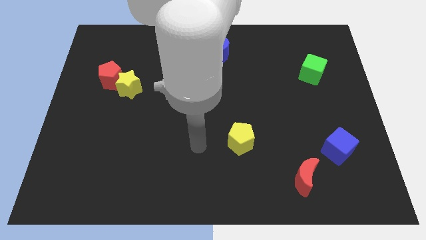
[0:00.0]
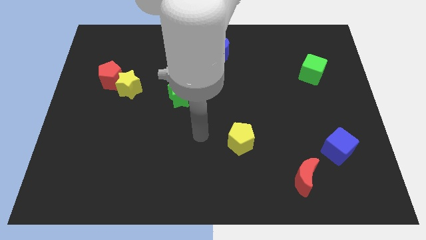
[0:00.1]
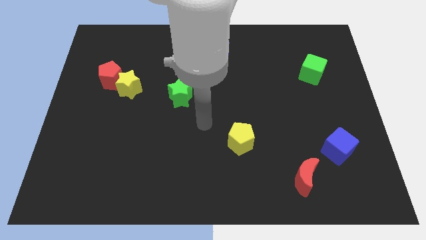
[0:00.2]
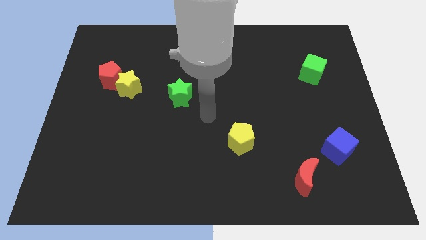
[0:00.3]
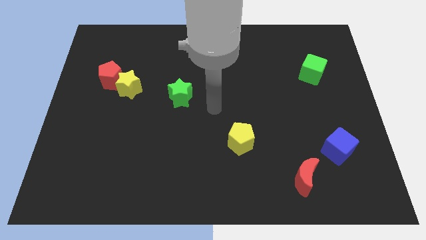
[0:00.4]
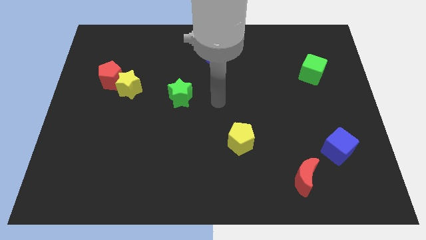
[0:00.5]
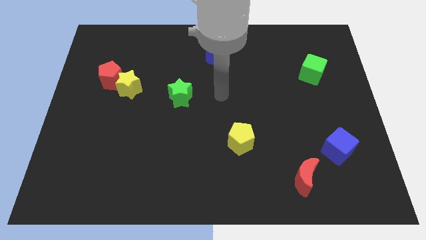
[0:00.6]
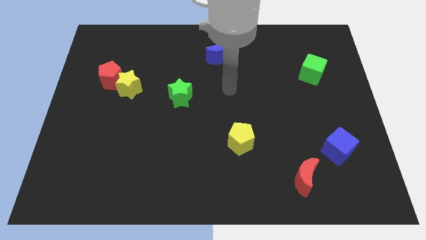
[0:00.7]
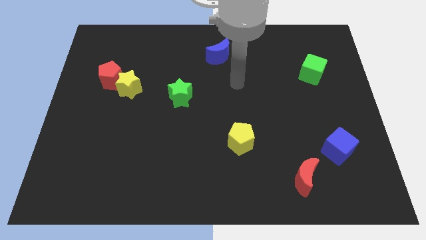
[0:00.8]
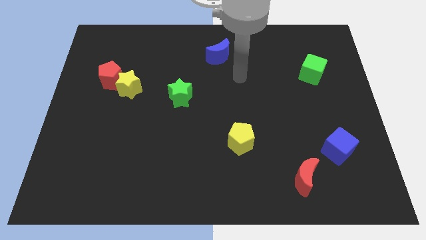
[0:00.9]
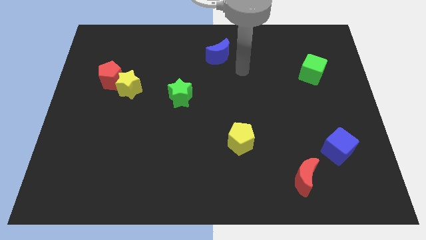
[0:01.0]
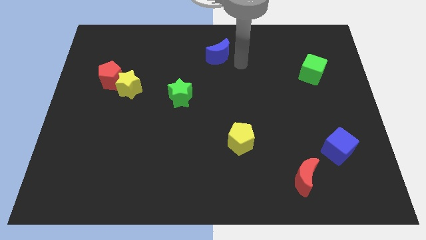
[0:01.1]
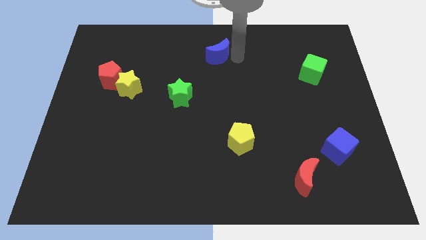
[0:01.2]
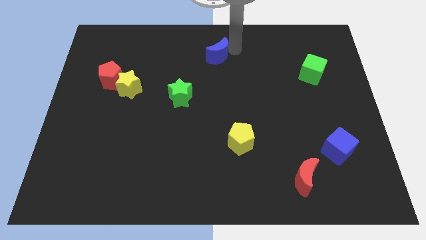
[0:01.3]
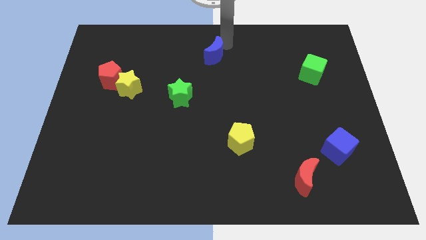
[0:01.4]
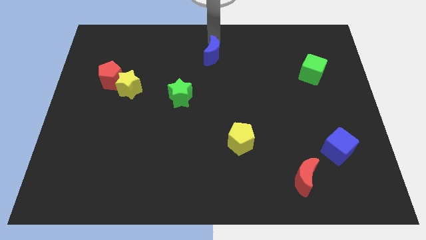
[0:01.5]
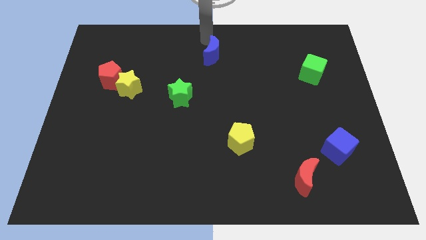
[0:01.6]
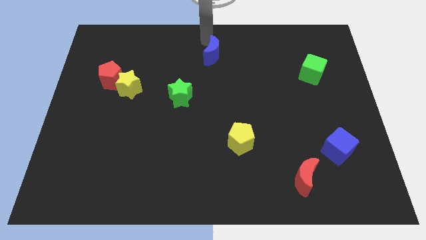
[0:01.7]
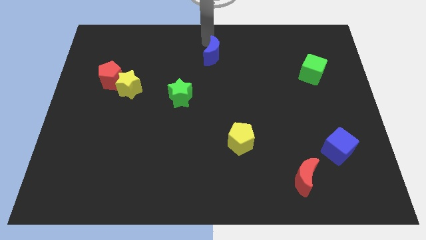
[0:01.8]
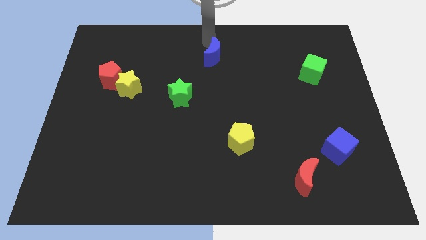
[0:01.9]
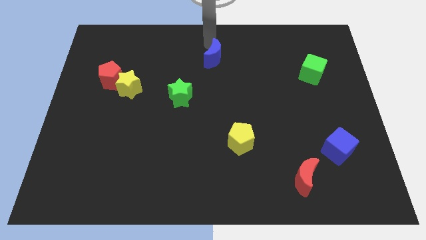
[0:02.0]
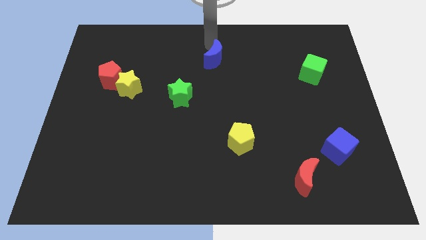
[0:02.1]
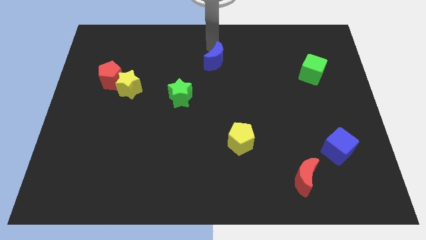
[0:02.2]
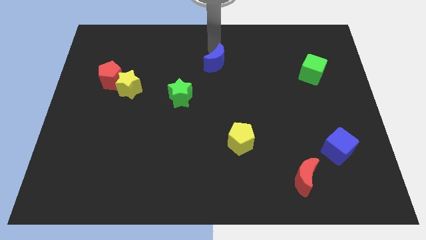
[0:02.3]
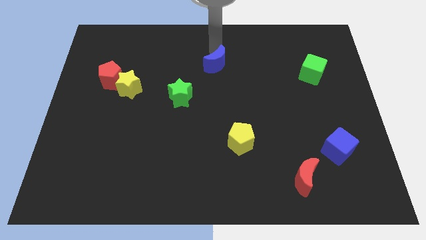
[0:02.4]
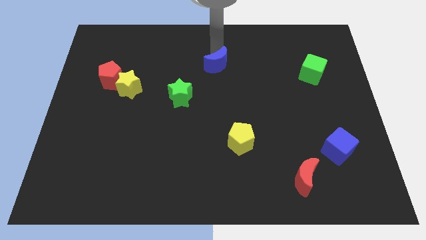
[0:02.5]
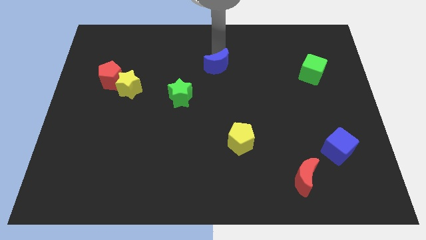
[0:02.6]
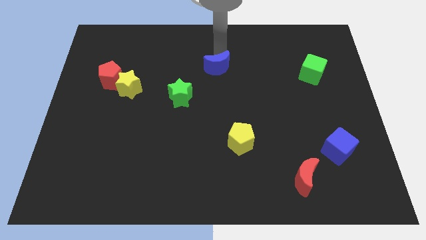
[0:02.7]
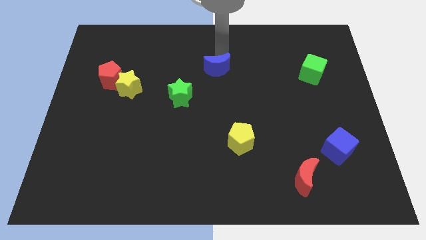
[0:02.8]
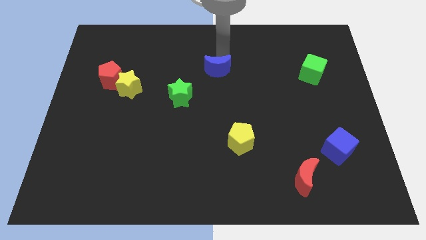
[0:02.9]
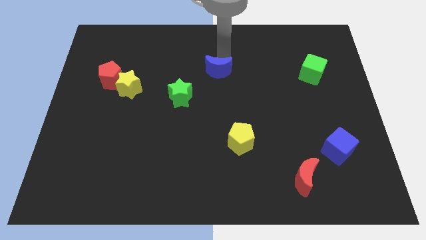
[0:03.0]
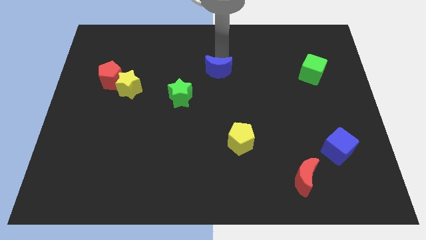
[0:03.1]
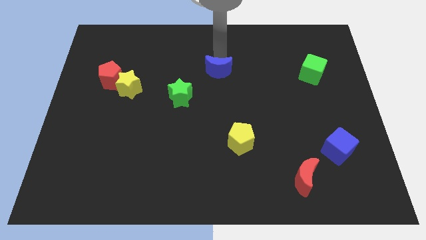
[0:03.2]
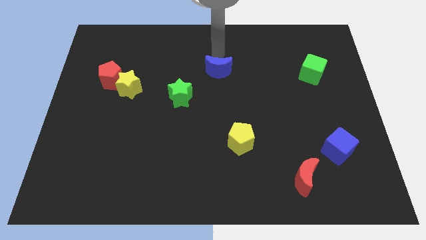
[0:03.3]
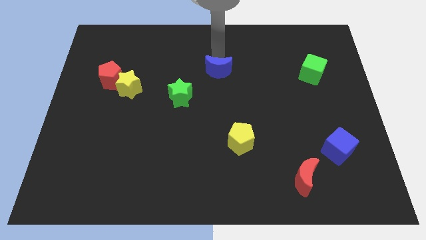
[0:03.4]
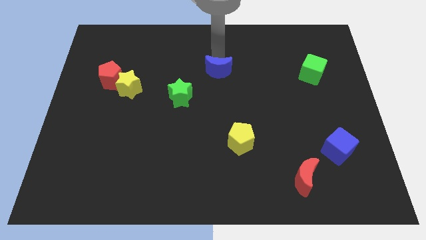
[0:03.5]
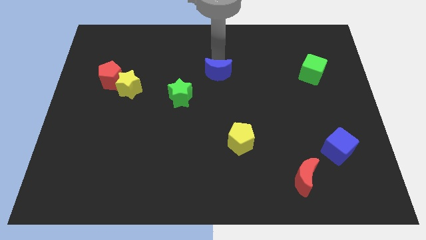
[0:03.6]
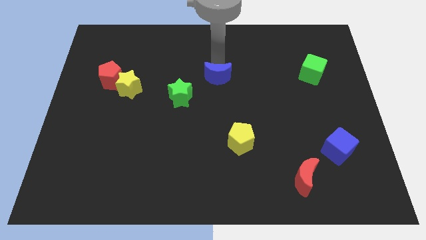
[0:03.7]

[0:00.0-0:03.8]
move the blue moon downwards slightly

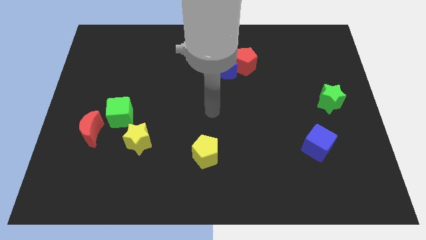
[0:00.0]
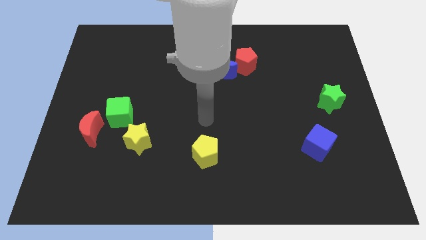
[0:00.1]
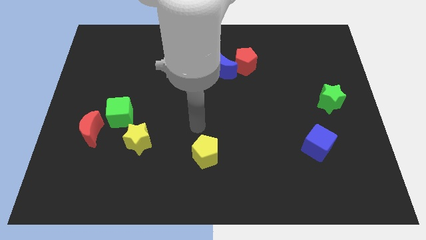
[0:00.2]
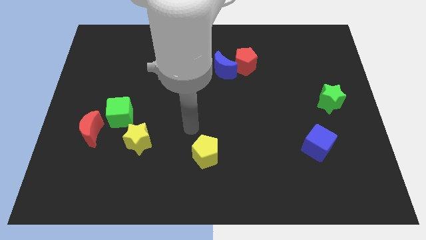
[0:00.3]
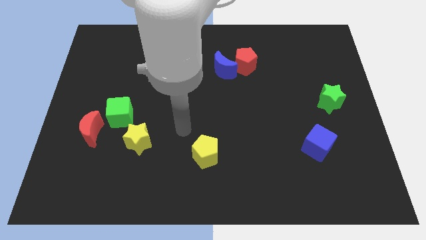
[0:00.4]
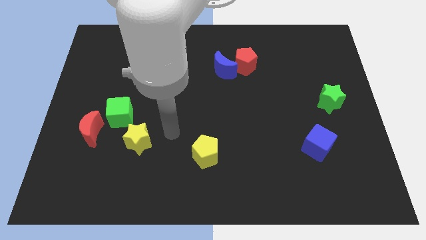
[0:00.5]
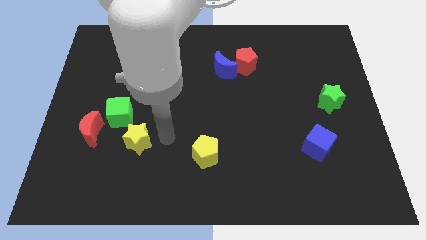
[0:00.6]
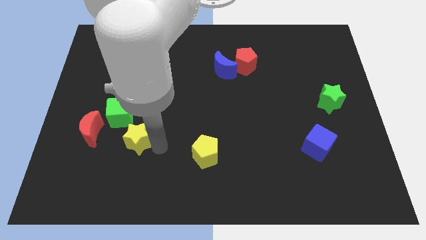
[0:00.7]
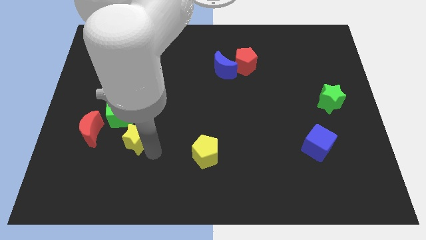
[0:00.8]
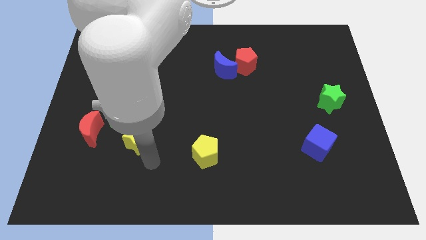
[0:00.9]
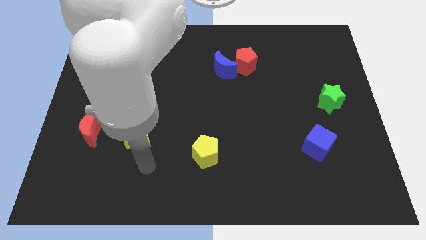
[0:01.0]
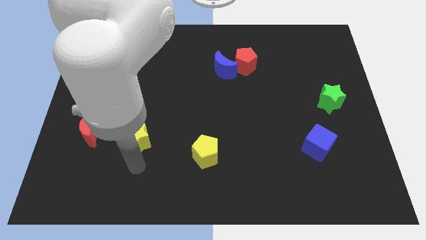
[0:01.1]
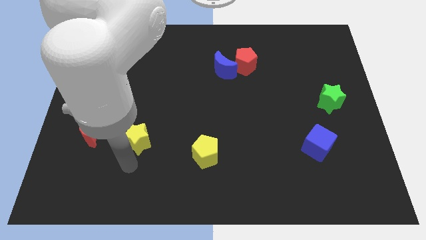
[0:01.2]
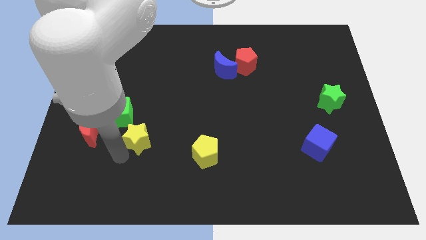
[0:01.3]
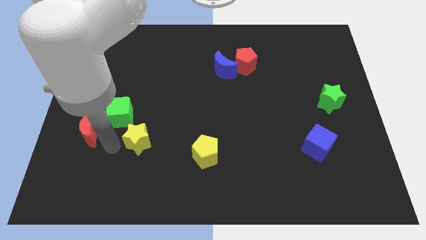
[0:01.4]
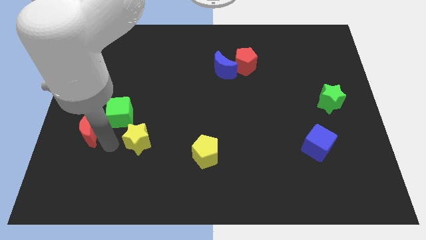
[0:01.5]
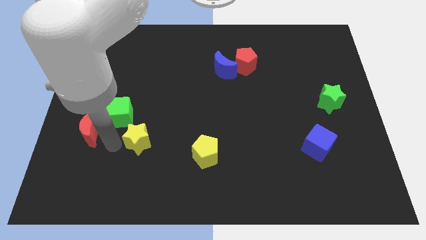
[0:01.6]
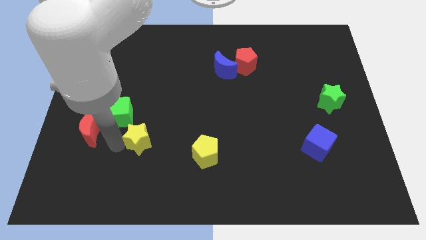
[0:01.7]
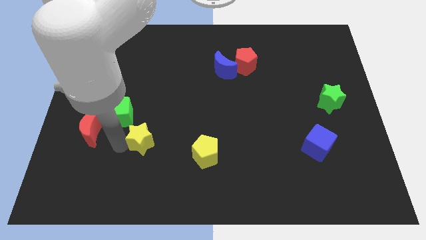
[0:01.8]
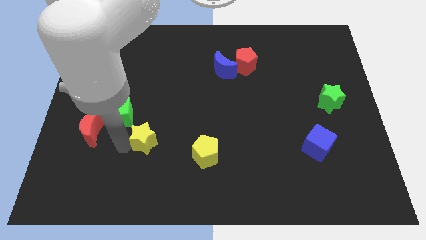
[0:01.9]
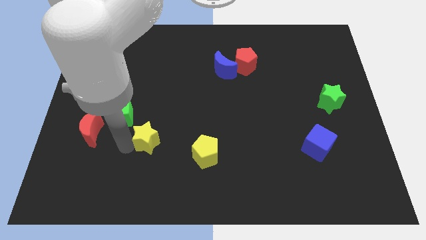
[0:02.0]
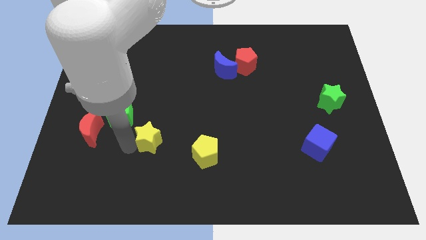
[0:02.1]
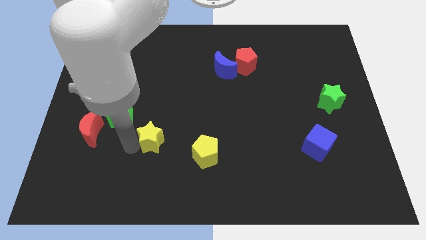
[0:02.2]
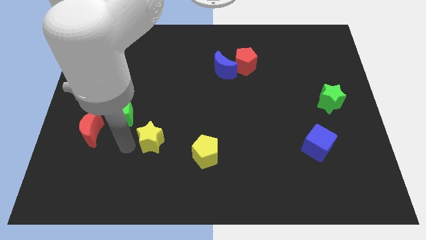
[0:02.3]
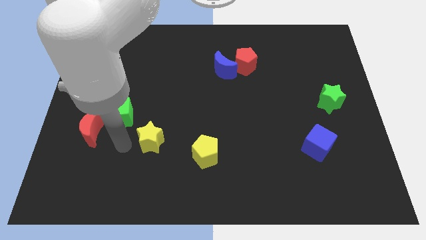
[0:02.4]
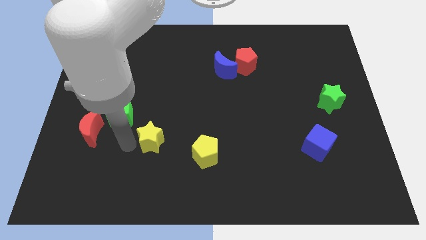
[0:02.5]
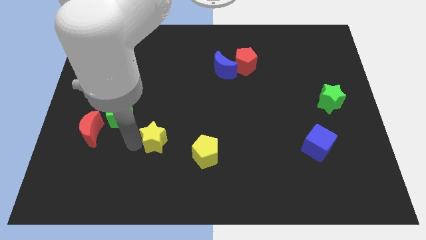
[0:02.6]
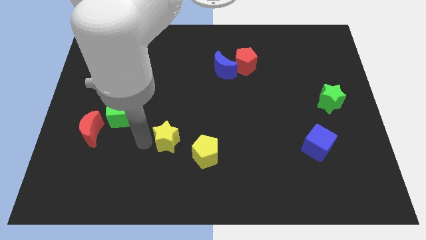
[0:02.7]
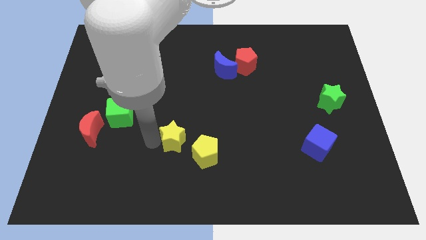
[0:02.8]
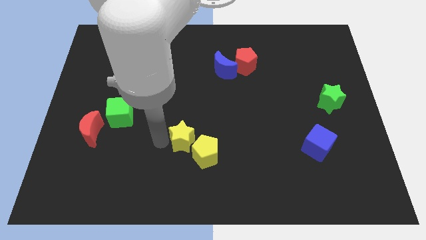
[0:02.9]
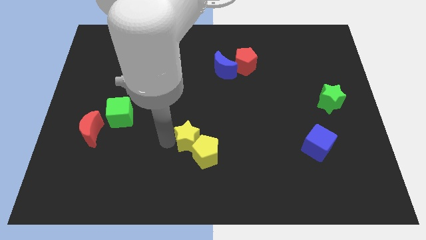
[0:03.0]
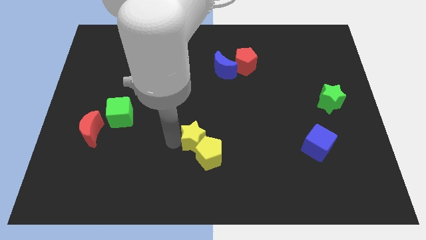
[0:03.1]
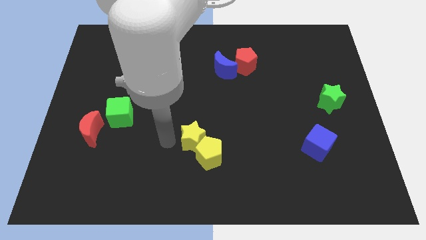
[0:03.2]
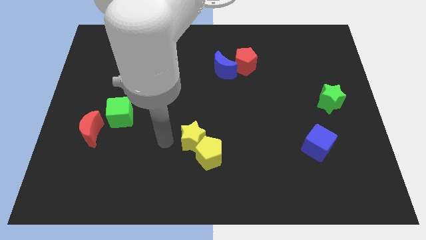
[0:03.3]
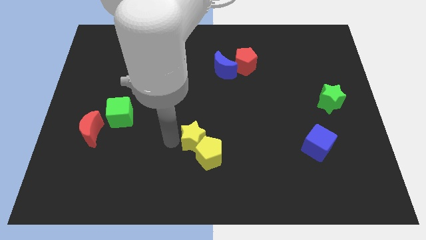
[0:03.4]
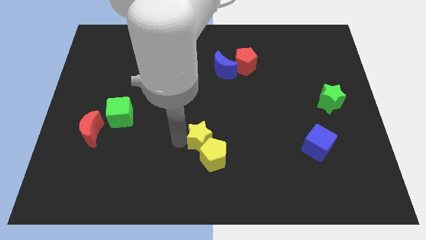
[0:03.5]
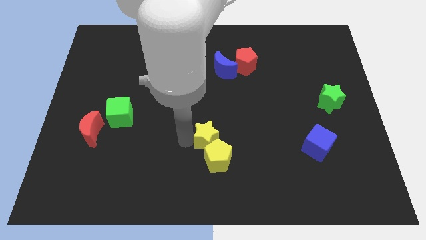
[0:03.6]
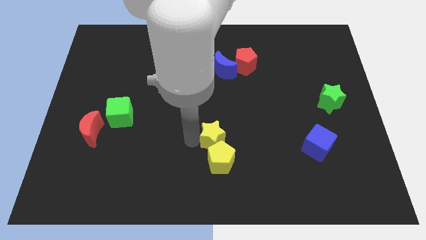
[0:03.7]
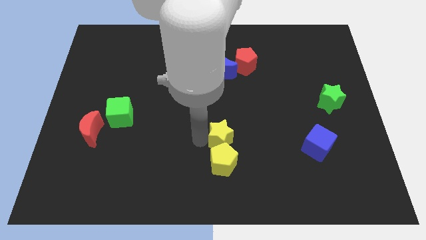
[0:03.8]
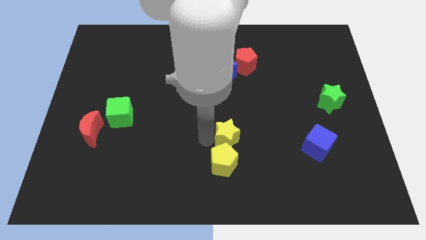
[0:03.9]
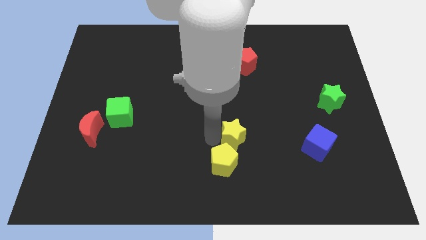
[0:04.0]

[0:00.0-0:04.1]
slide the yellow star right
